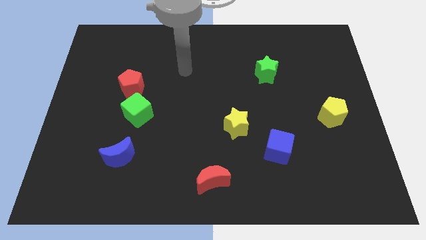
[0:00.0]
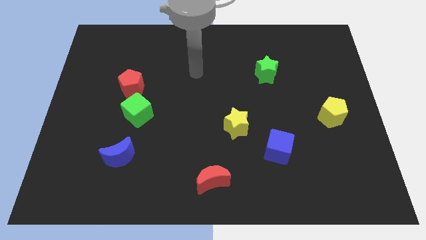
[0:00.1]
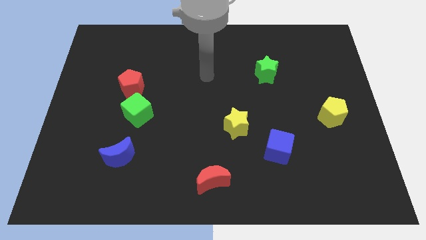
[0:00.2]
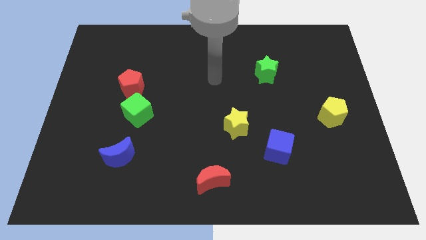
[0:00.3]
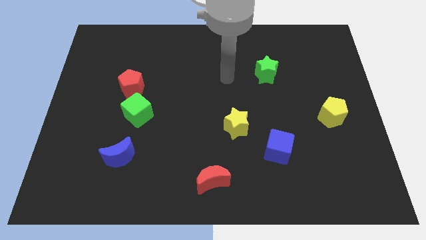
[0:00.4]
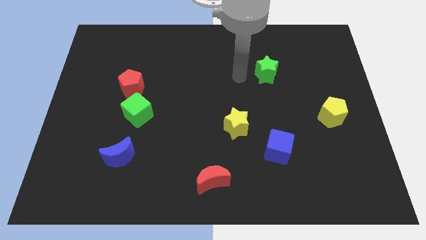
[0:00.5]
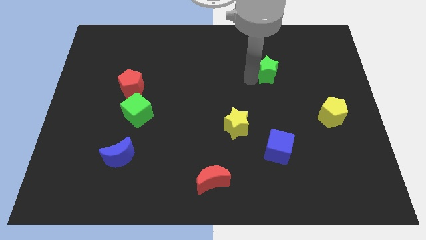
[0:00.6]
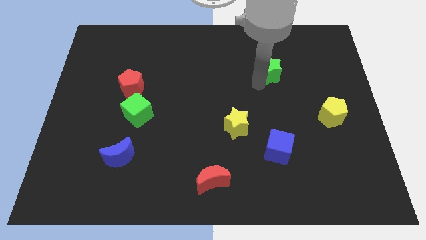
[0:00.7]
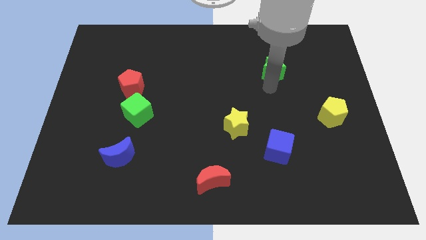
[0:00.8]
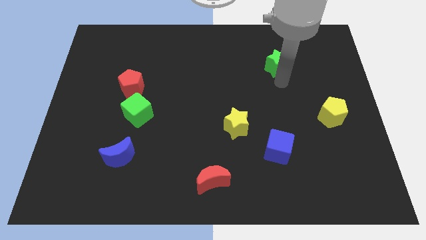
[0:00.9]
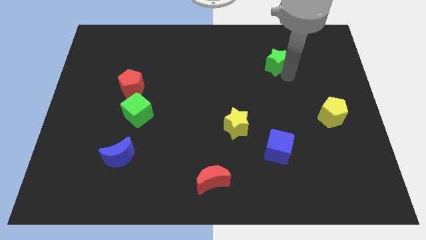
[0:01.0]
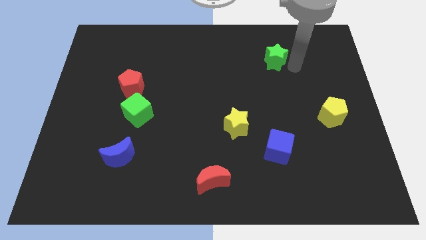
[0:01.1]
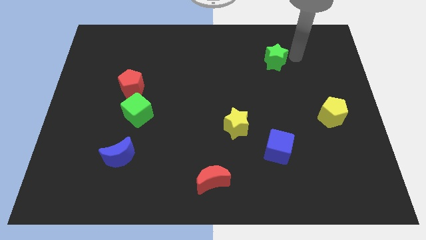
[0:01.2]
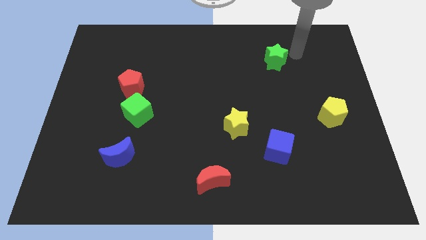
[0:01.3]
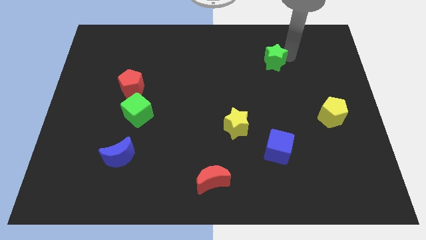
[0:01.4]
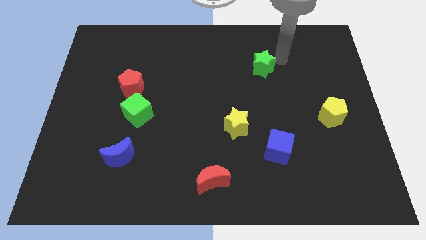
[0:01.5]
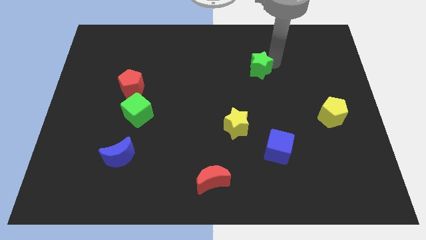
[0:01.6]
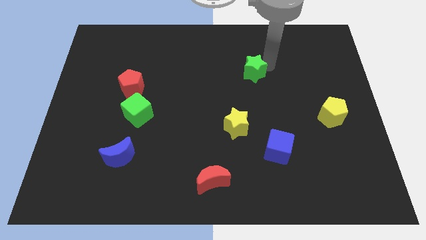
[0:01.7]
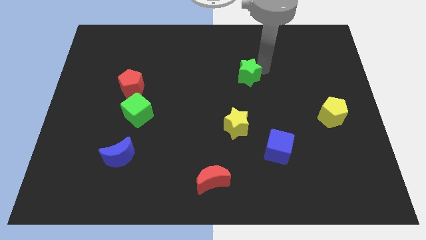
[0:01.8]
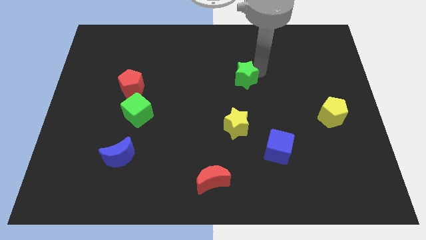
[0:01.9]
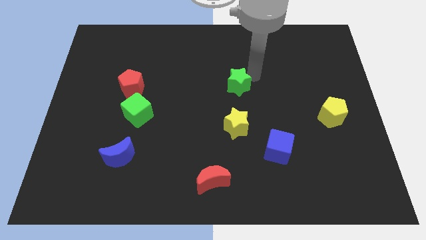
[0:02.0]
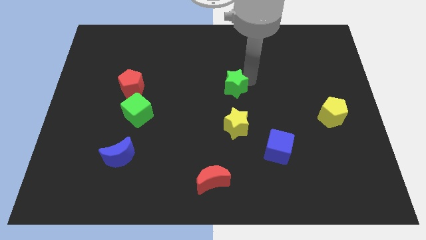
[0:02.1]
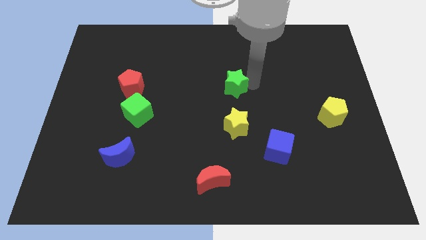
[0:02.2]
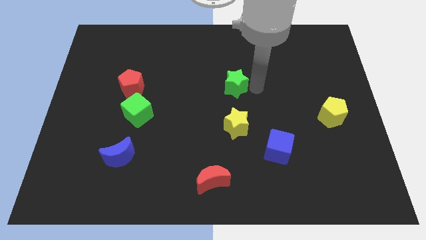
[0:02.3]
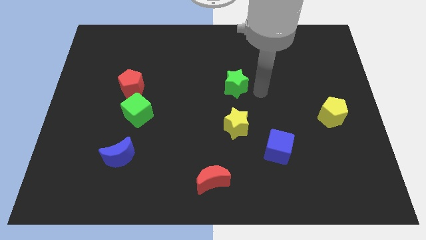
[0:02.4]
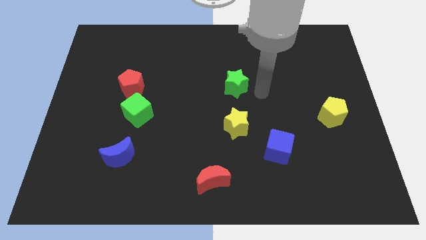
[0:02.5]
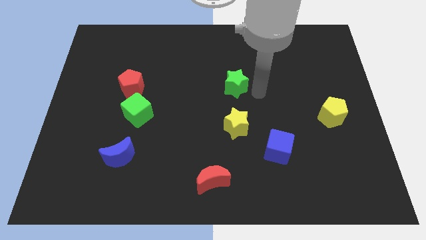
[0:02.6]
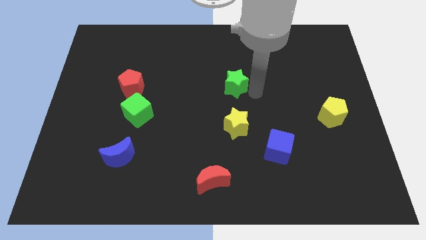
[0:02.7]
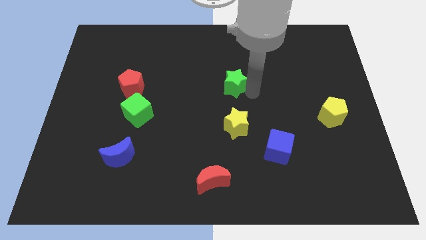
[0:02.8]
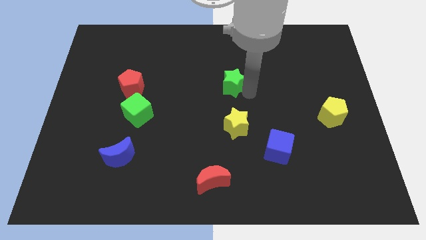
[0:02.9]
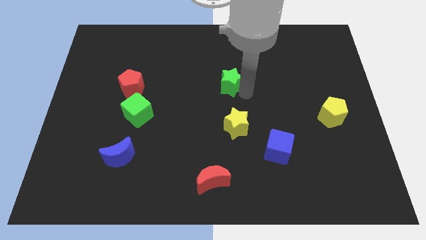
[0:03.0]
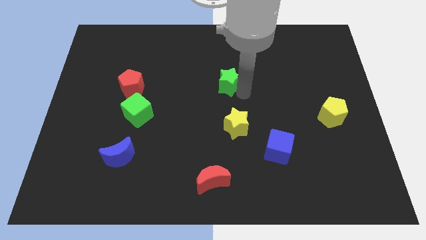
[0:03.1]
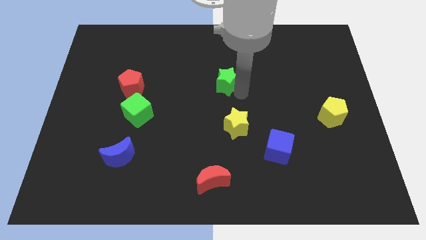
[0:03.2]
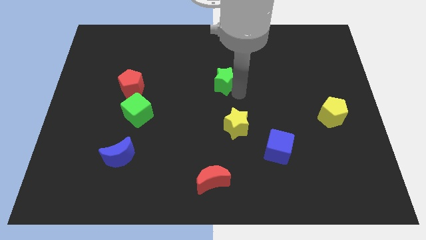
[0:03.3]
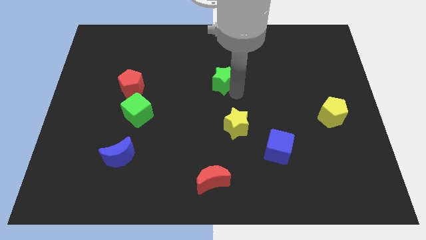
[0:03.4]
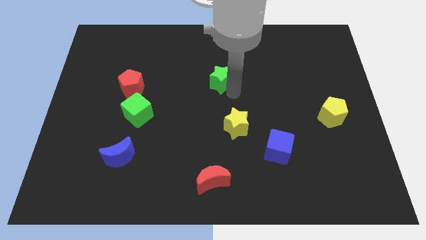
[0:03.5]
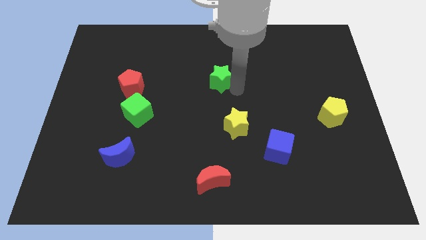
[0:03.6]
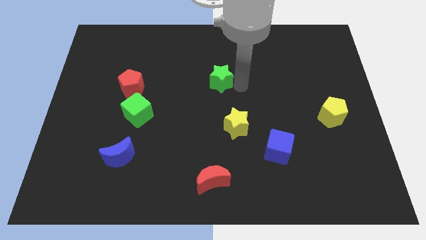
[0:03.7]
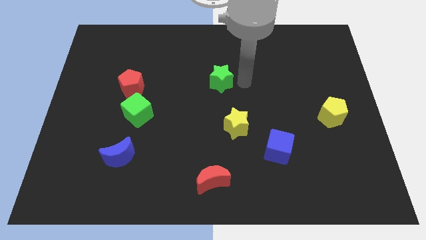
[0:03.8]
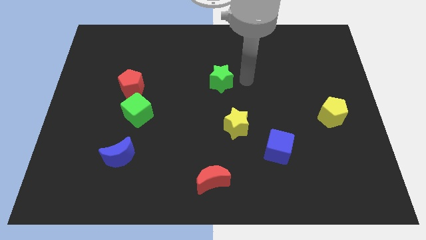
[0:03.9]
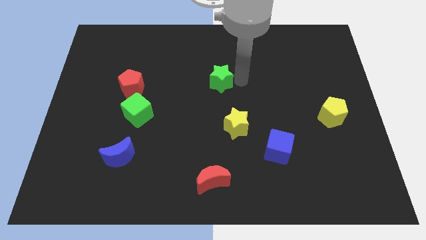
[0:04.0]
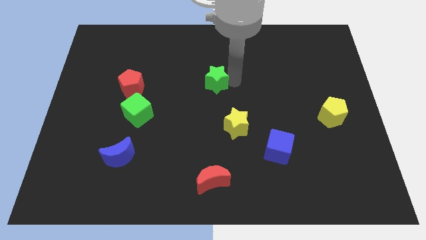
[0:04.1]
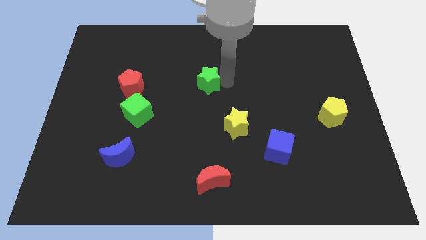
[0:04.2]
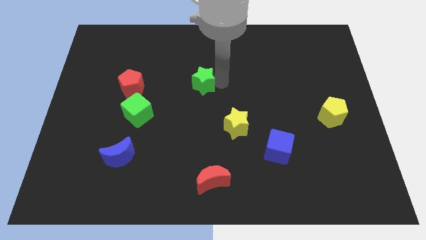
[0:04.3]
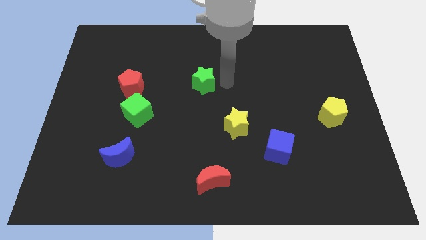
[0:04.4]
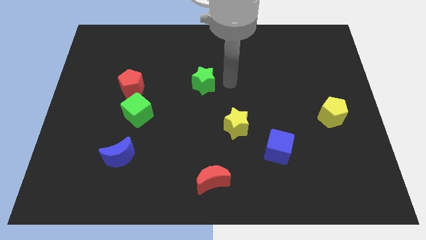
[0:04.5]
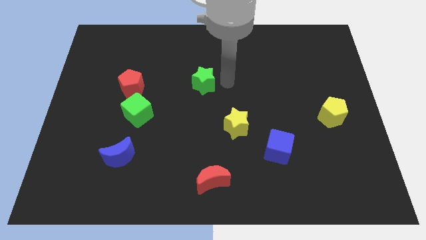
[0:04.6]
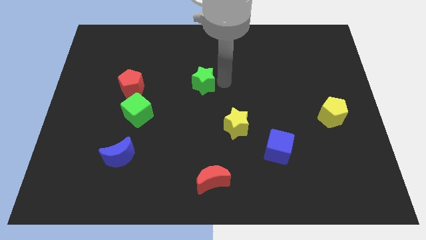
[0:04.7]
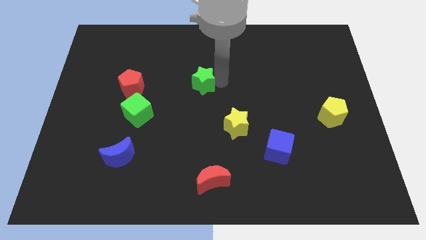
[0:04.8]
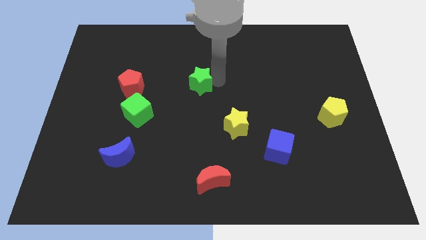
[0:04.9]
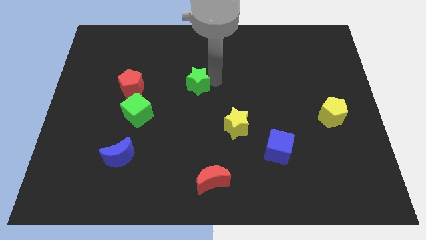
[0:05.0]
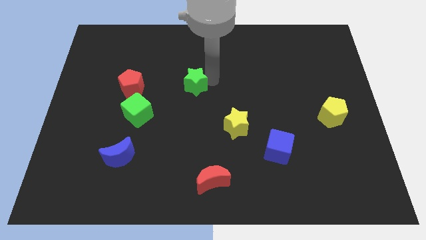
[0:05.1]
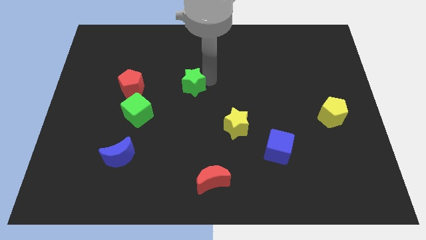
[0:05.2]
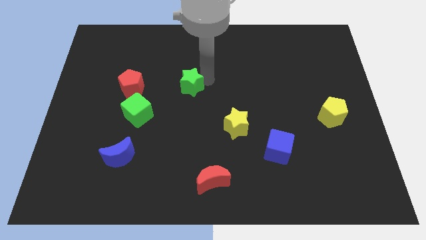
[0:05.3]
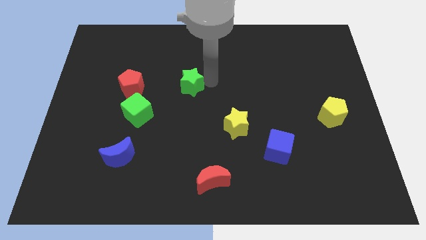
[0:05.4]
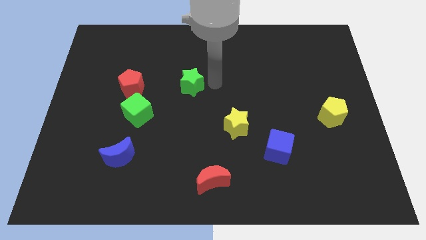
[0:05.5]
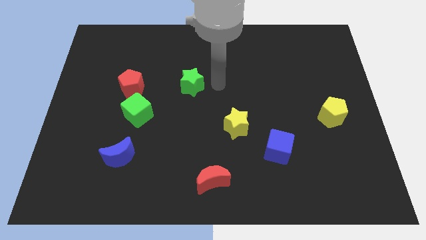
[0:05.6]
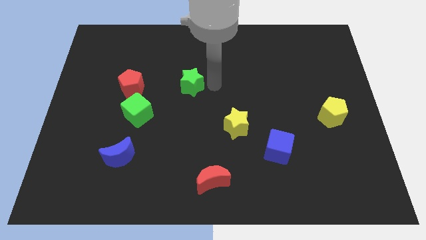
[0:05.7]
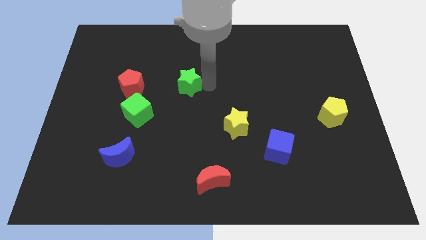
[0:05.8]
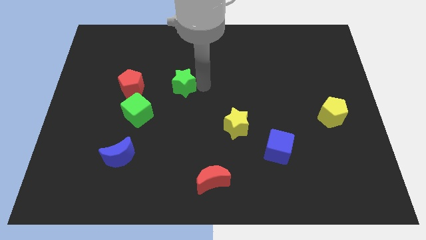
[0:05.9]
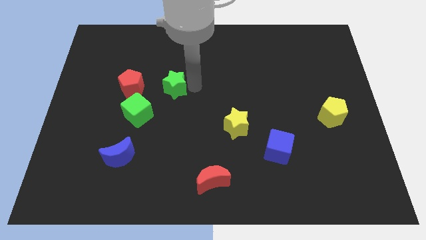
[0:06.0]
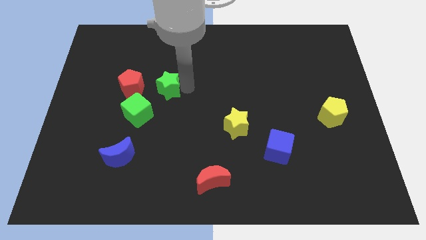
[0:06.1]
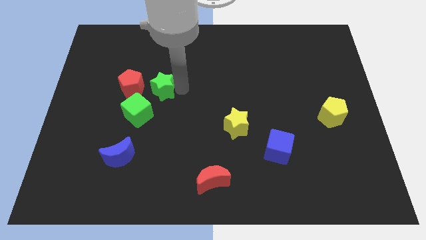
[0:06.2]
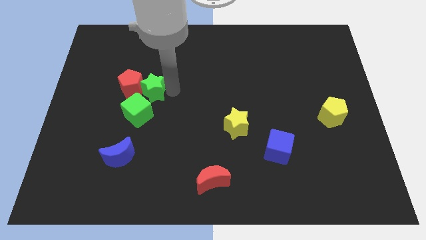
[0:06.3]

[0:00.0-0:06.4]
put the green star close to the red pentagon
